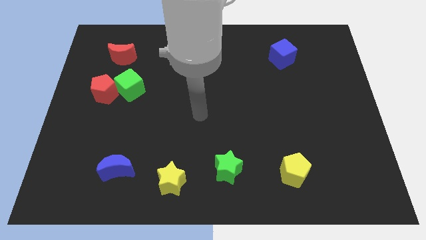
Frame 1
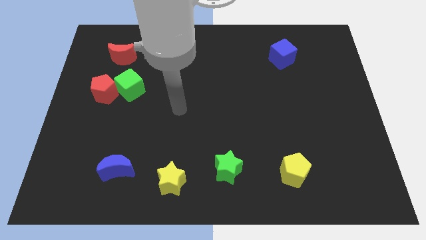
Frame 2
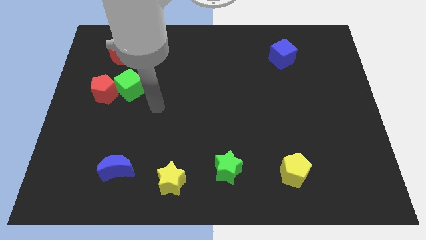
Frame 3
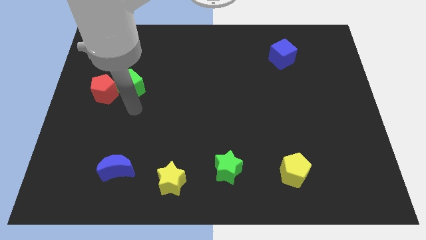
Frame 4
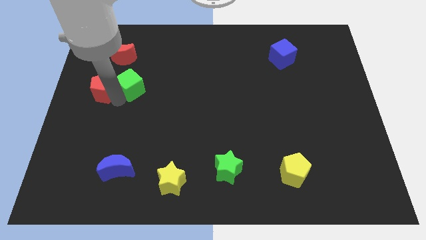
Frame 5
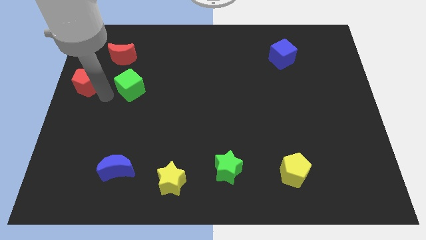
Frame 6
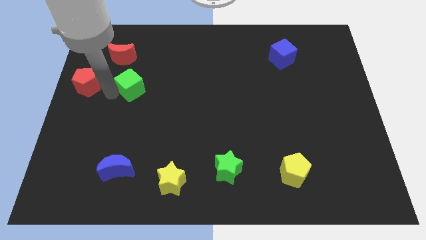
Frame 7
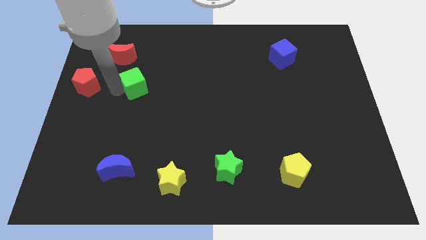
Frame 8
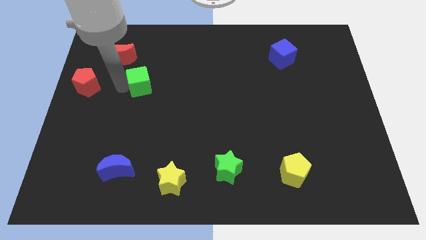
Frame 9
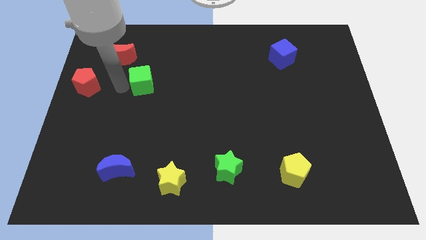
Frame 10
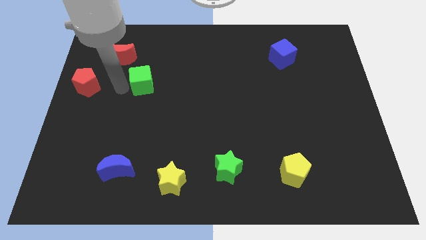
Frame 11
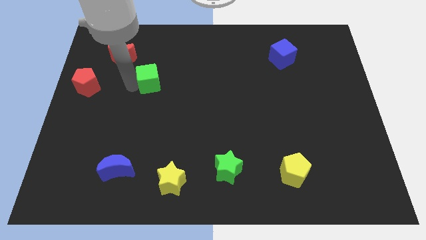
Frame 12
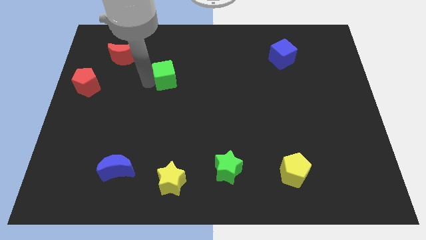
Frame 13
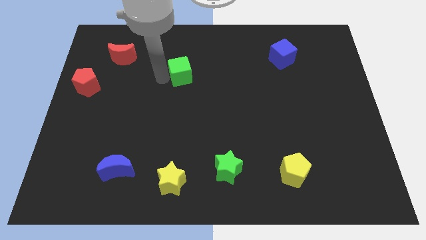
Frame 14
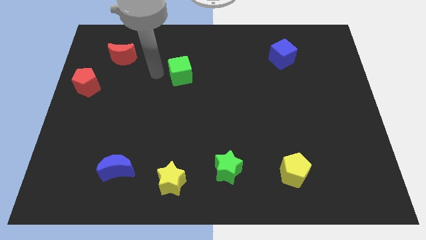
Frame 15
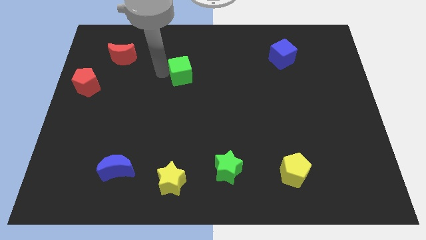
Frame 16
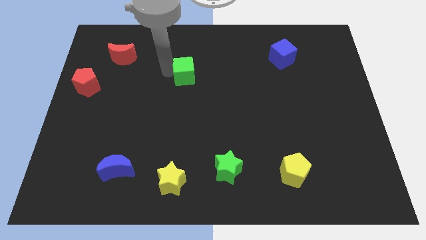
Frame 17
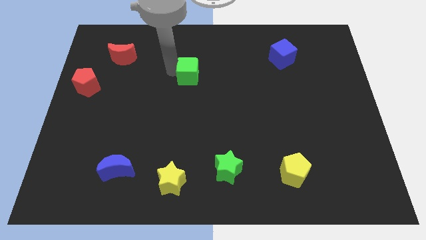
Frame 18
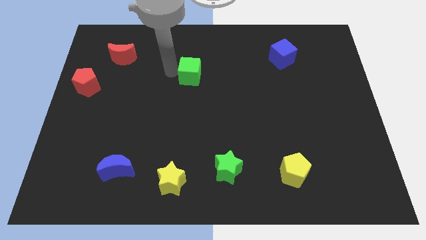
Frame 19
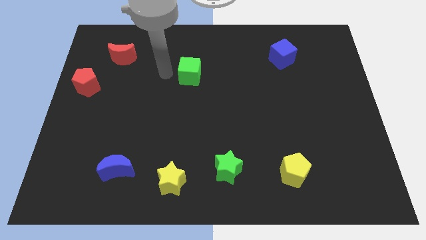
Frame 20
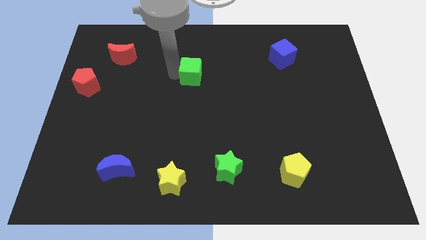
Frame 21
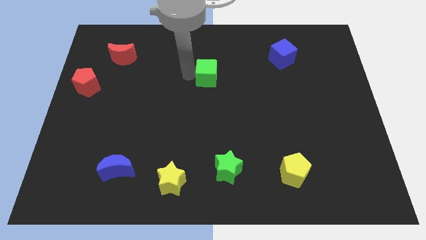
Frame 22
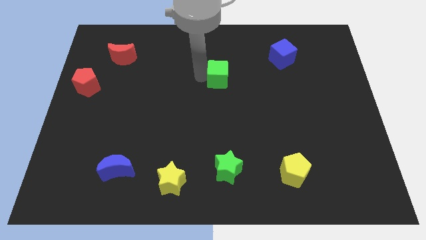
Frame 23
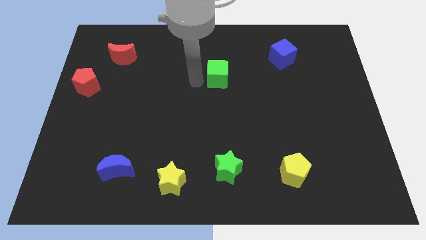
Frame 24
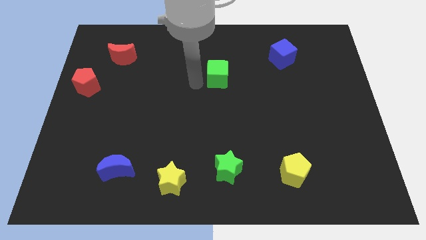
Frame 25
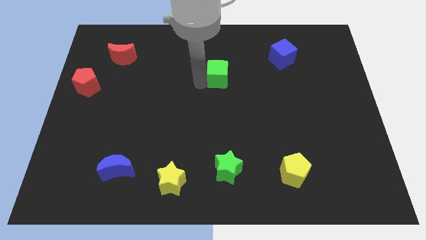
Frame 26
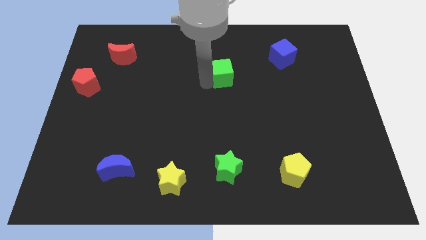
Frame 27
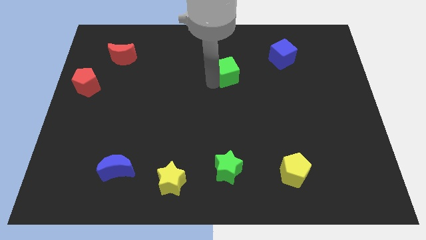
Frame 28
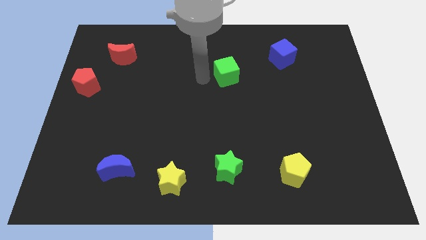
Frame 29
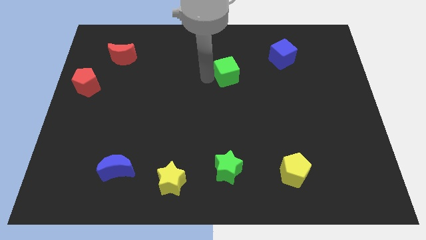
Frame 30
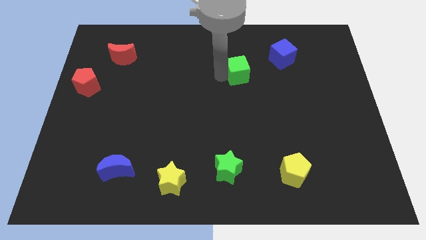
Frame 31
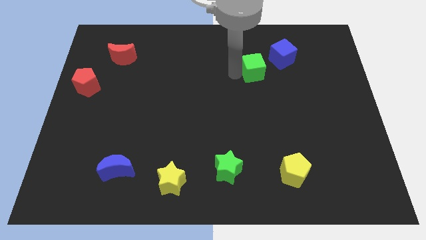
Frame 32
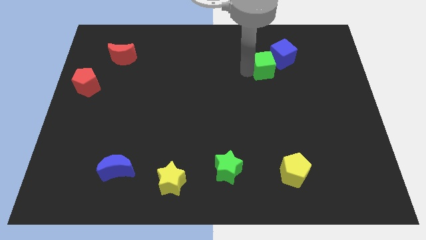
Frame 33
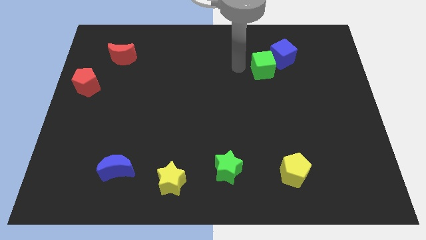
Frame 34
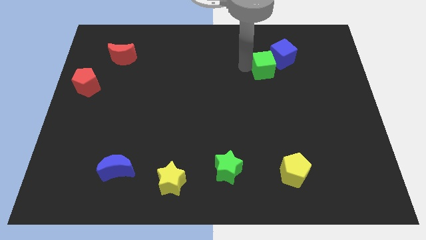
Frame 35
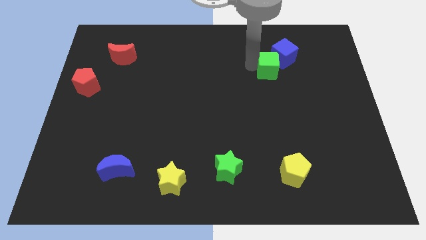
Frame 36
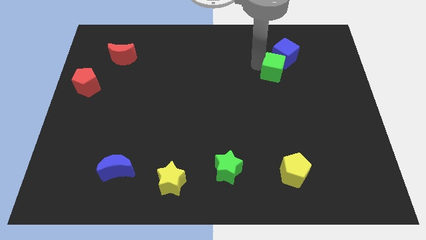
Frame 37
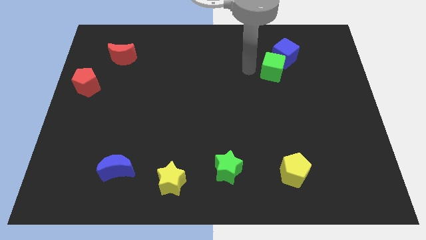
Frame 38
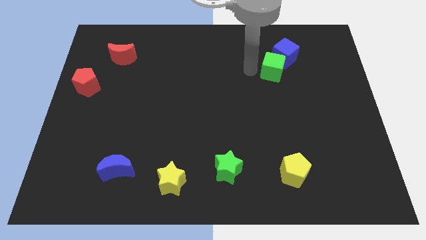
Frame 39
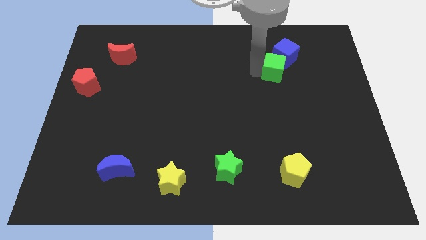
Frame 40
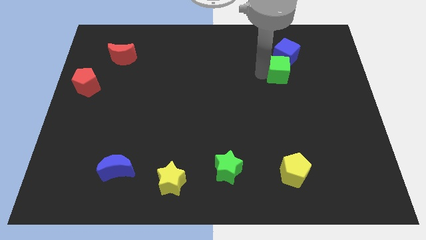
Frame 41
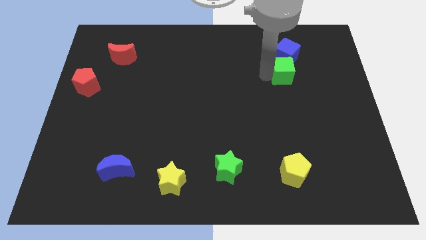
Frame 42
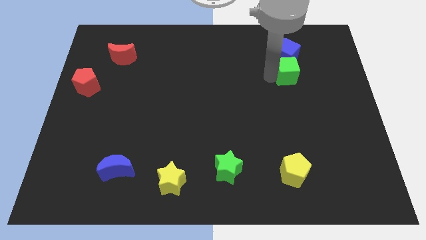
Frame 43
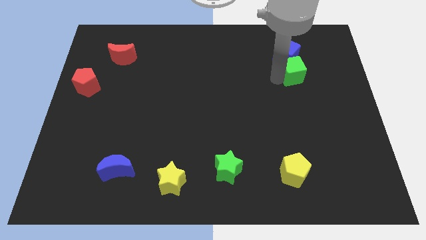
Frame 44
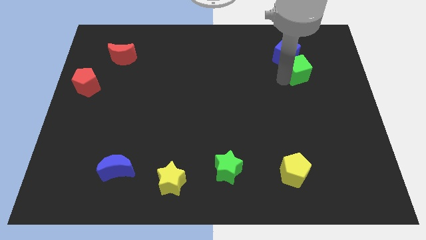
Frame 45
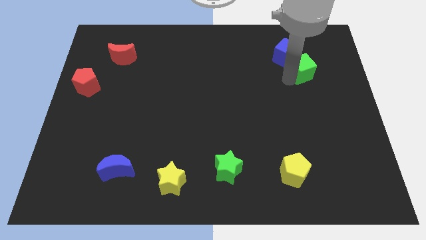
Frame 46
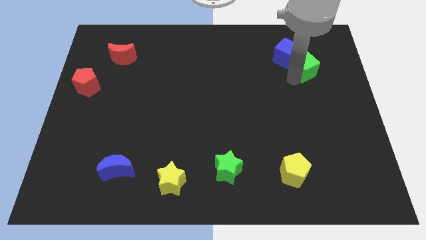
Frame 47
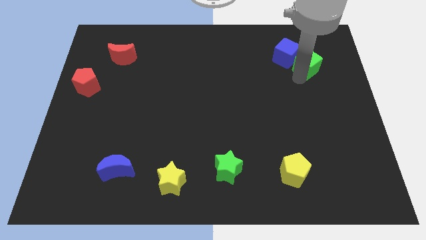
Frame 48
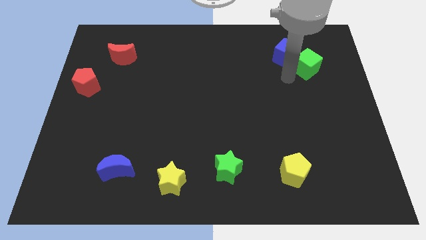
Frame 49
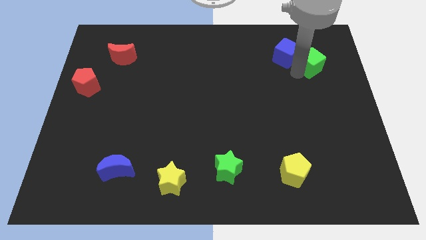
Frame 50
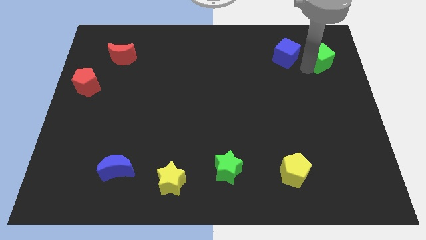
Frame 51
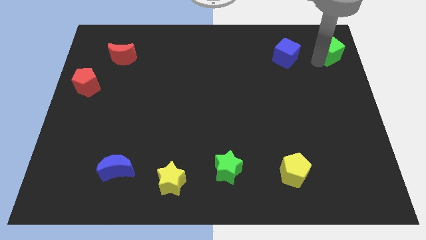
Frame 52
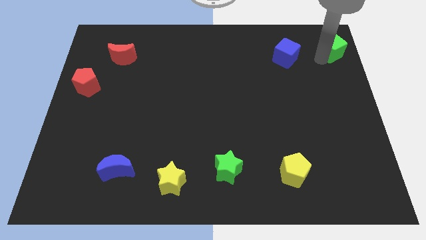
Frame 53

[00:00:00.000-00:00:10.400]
push the green cube to the top right of the board
